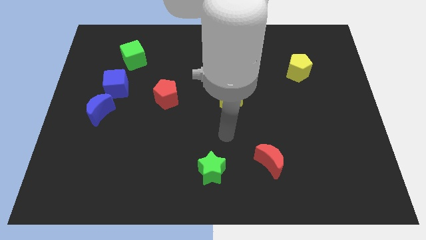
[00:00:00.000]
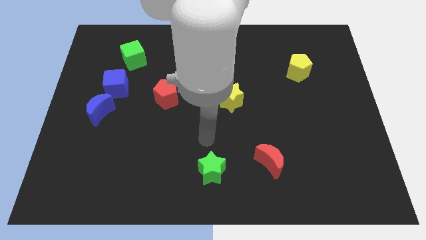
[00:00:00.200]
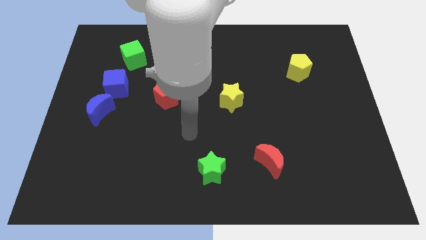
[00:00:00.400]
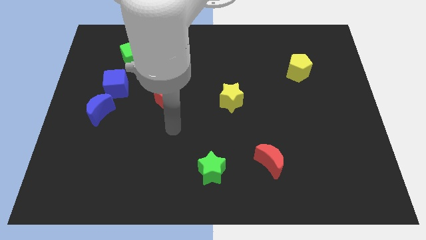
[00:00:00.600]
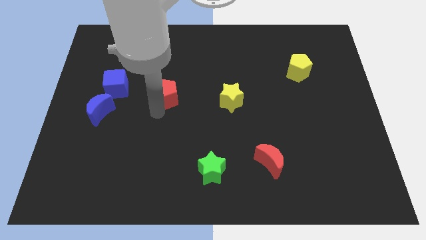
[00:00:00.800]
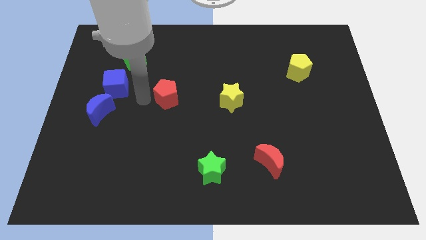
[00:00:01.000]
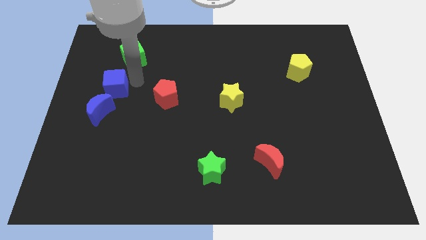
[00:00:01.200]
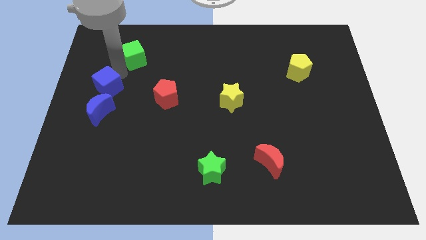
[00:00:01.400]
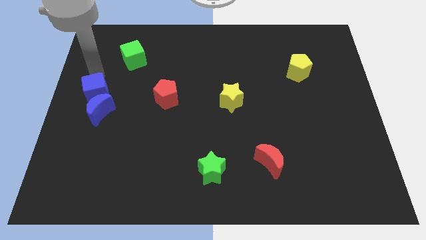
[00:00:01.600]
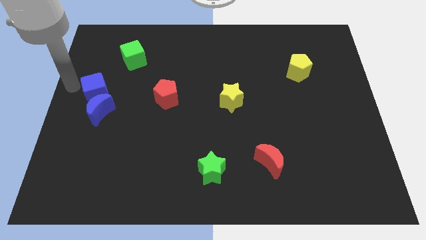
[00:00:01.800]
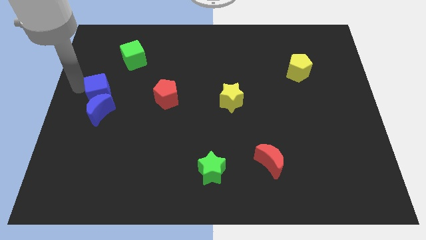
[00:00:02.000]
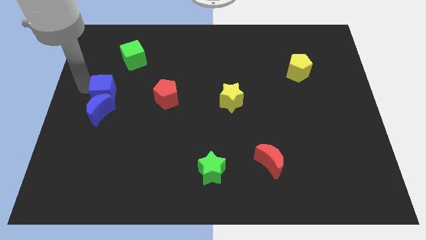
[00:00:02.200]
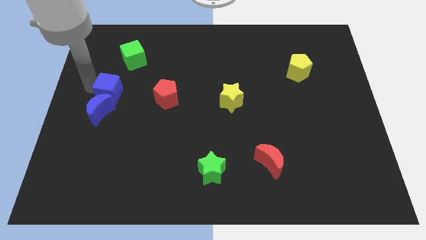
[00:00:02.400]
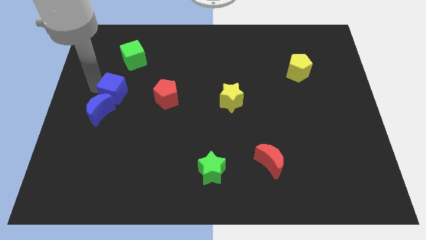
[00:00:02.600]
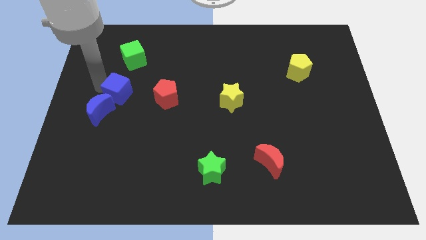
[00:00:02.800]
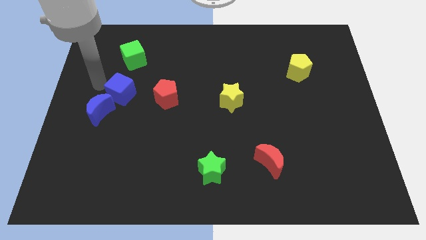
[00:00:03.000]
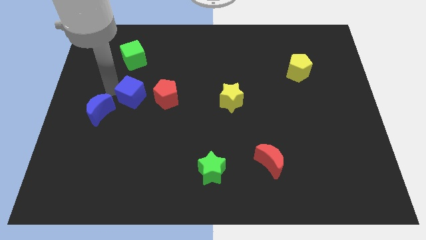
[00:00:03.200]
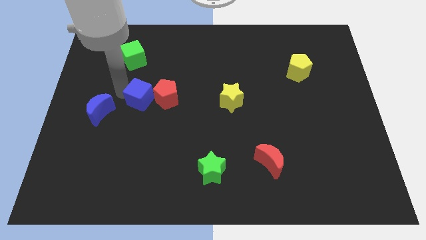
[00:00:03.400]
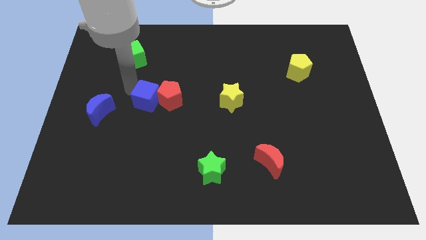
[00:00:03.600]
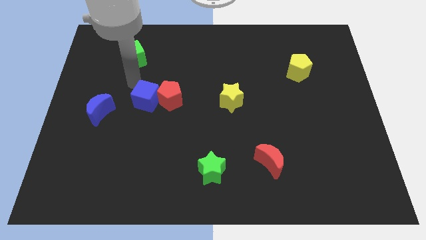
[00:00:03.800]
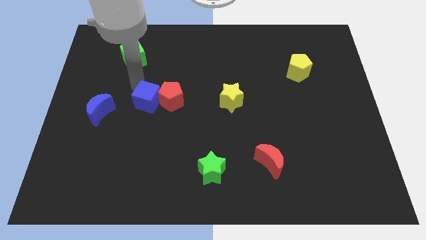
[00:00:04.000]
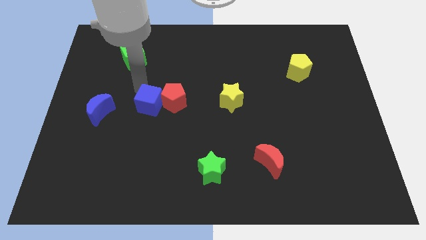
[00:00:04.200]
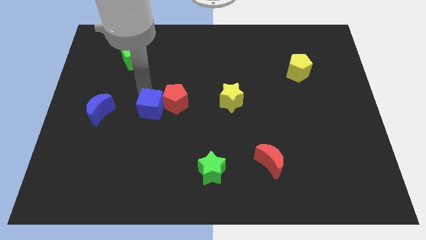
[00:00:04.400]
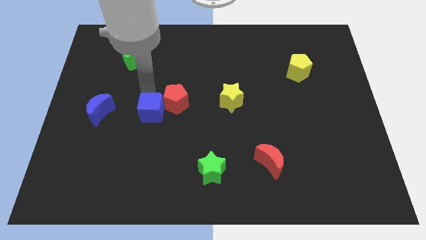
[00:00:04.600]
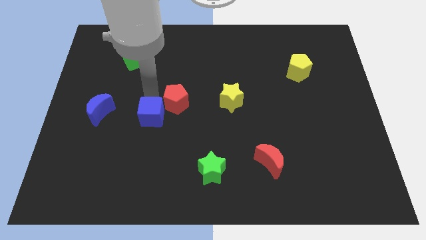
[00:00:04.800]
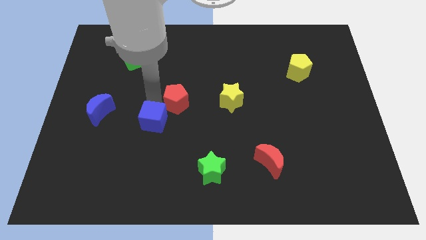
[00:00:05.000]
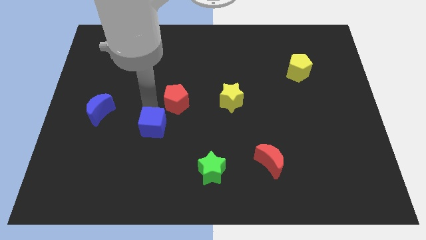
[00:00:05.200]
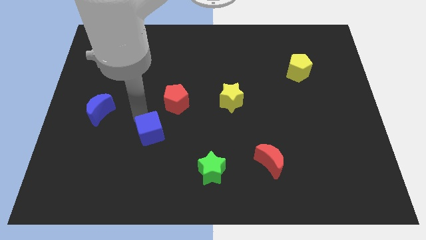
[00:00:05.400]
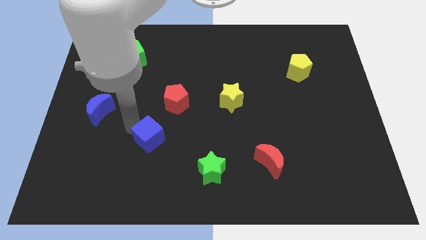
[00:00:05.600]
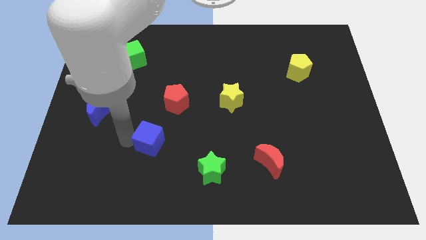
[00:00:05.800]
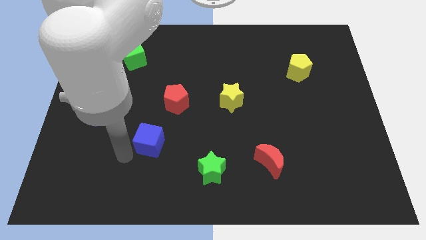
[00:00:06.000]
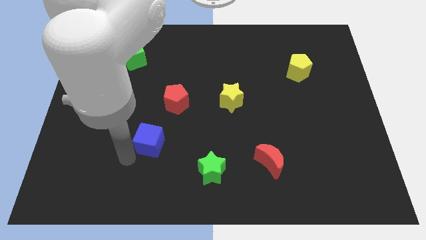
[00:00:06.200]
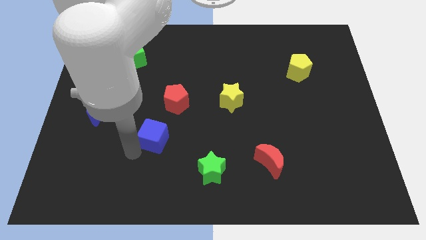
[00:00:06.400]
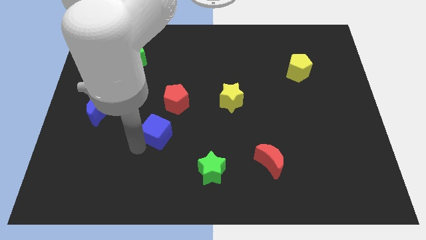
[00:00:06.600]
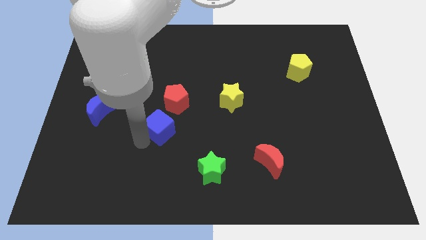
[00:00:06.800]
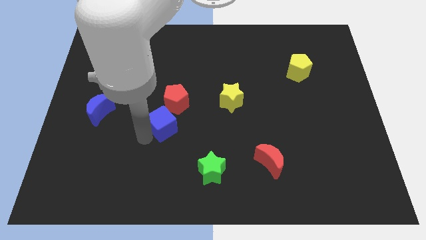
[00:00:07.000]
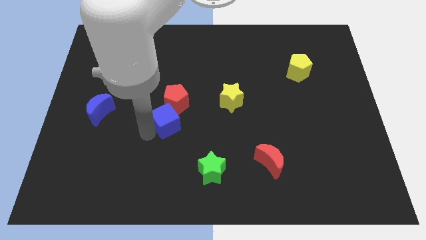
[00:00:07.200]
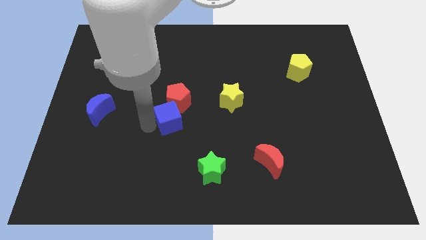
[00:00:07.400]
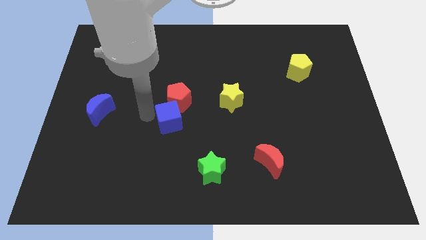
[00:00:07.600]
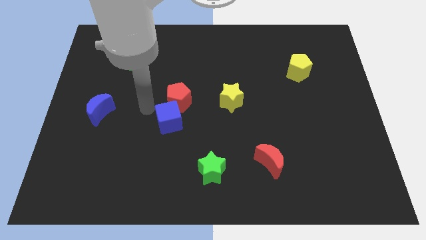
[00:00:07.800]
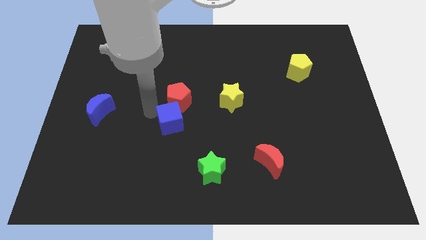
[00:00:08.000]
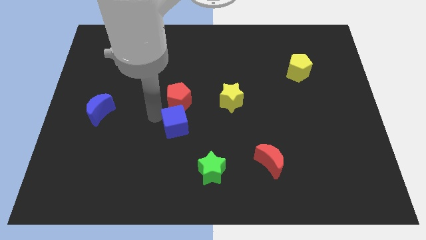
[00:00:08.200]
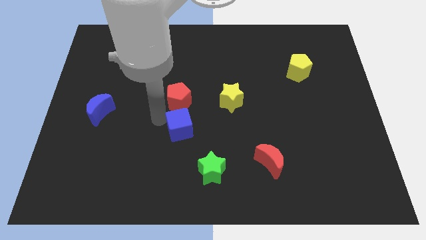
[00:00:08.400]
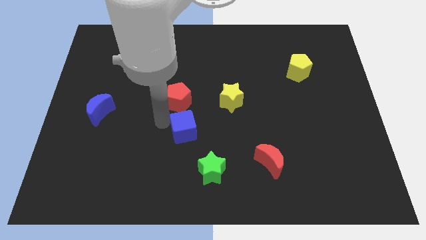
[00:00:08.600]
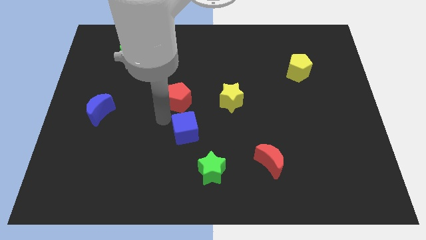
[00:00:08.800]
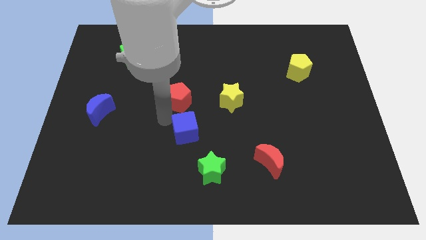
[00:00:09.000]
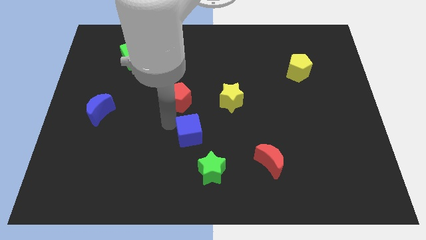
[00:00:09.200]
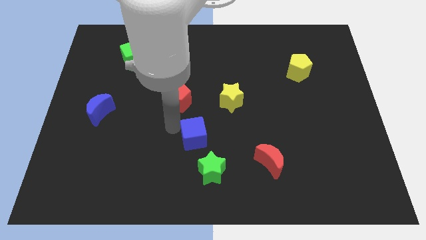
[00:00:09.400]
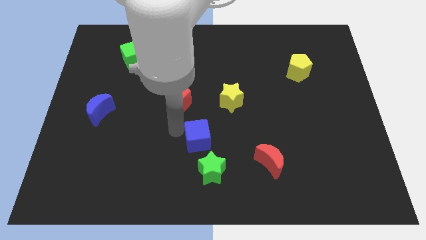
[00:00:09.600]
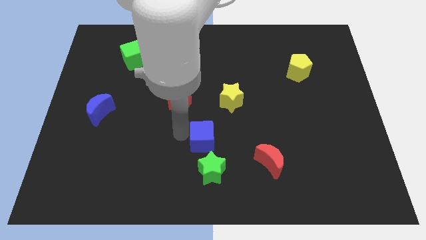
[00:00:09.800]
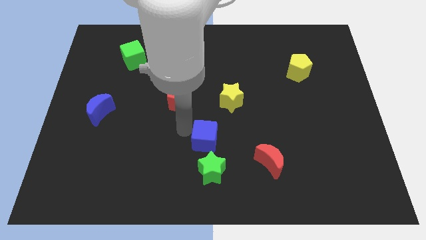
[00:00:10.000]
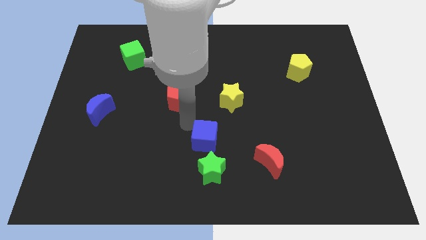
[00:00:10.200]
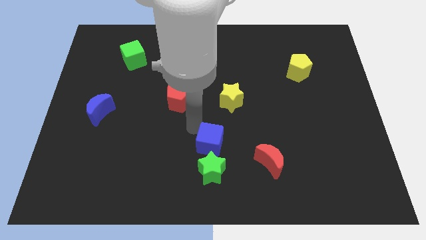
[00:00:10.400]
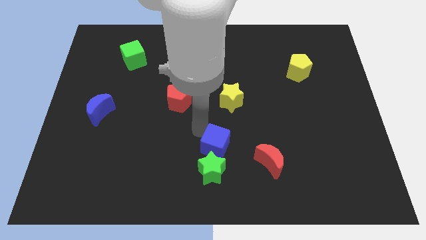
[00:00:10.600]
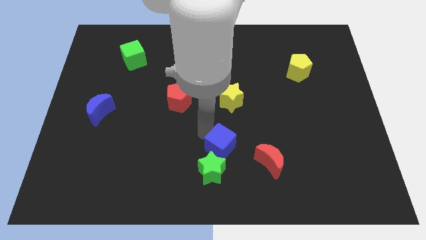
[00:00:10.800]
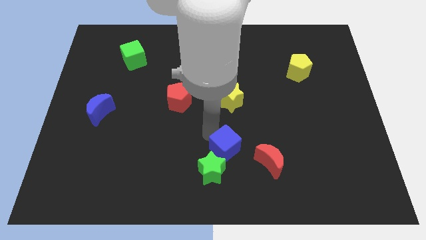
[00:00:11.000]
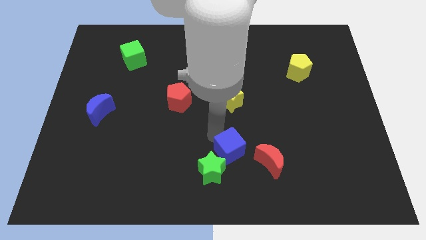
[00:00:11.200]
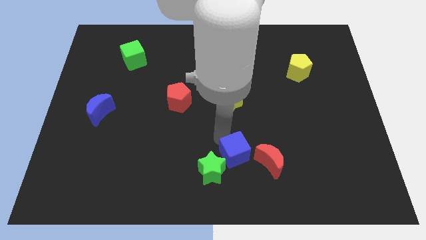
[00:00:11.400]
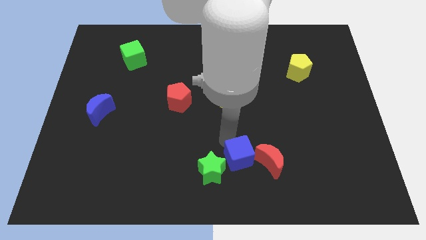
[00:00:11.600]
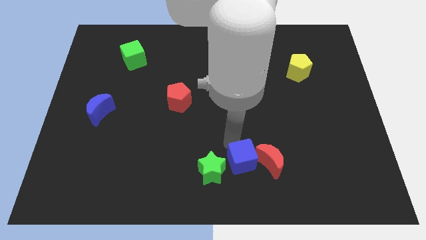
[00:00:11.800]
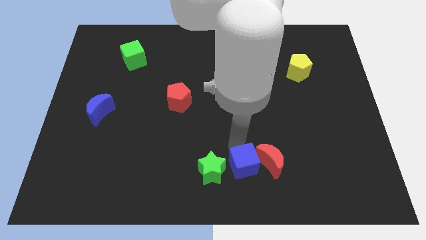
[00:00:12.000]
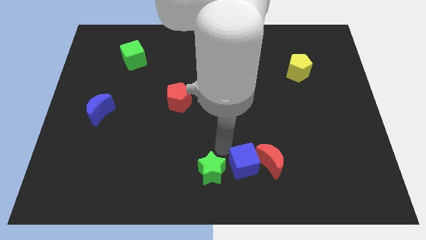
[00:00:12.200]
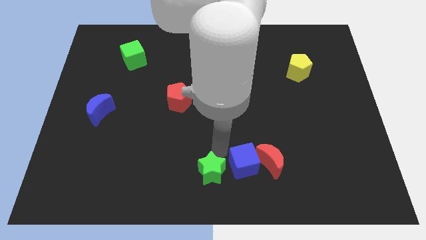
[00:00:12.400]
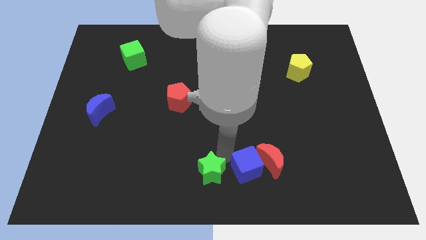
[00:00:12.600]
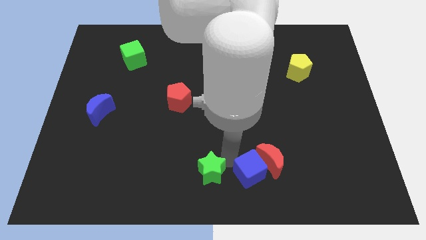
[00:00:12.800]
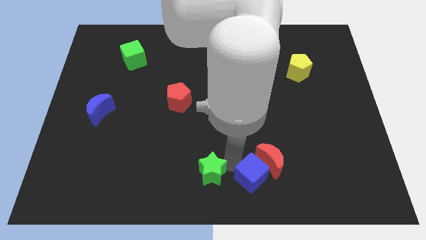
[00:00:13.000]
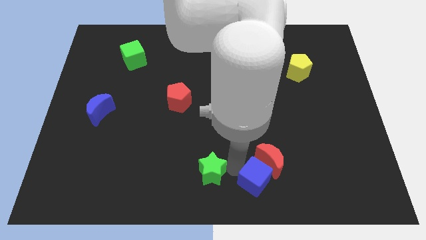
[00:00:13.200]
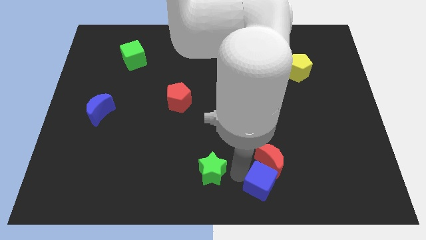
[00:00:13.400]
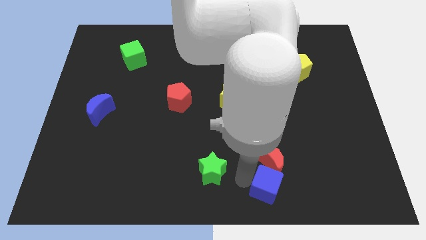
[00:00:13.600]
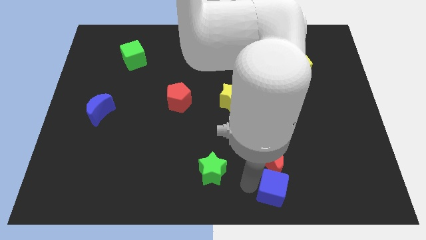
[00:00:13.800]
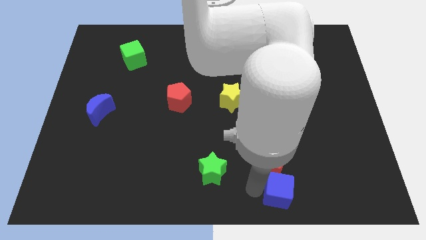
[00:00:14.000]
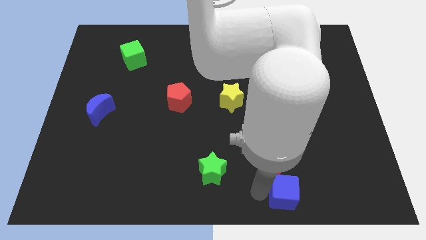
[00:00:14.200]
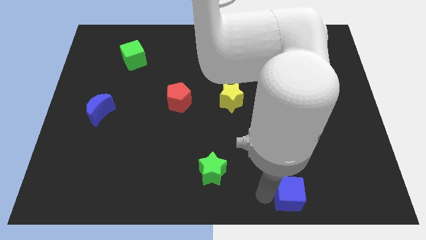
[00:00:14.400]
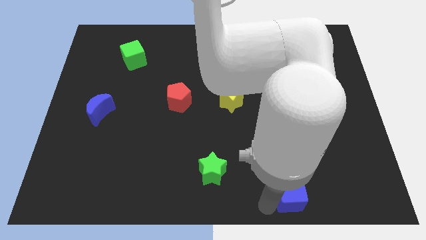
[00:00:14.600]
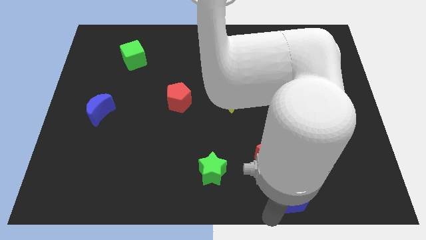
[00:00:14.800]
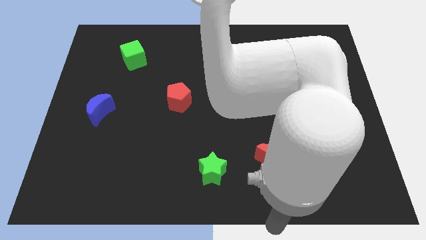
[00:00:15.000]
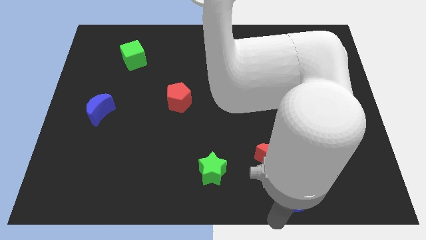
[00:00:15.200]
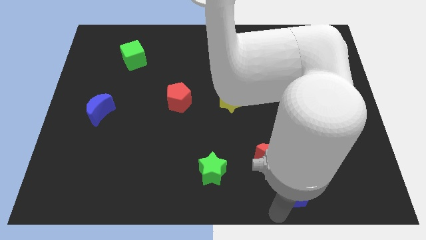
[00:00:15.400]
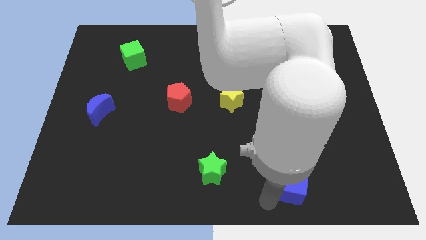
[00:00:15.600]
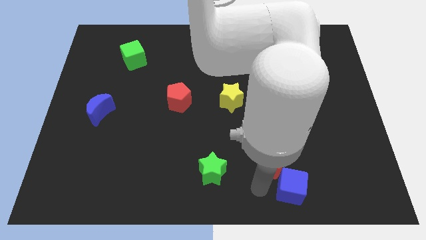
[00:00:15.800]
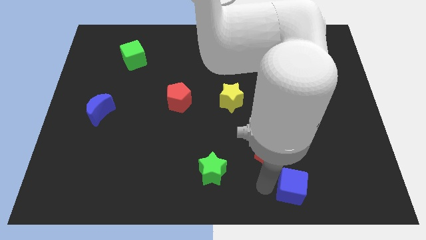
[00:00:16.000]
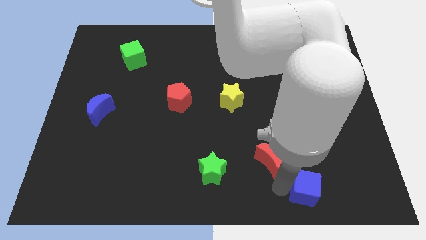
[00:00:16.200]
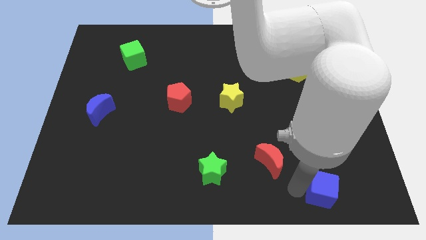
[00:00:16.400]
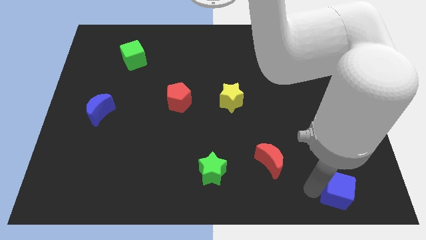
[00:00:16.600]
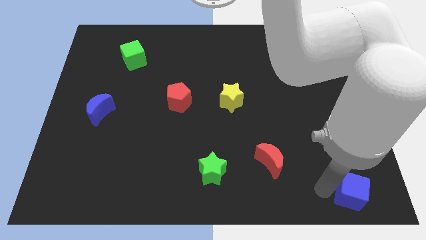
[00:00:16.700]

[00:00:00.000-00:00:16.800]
move the blue cube to the bottom right corner
